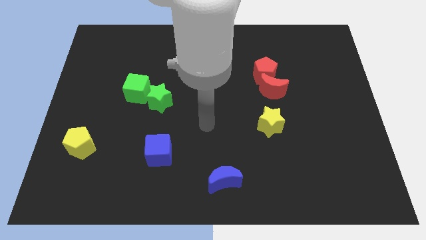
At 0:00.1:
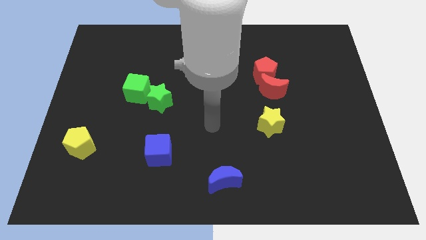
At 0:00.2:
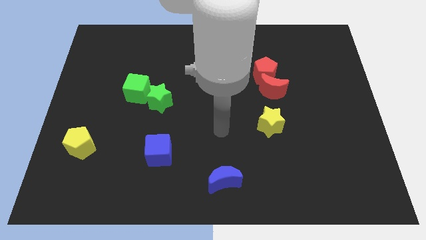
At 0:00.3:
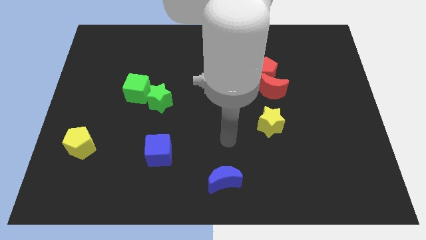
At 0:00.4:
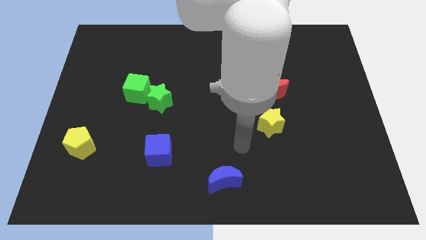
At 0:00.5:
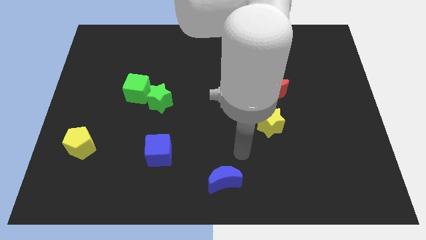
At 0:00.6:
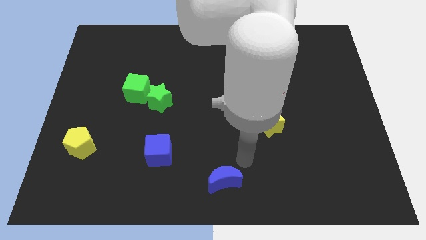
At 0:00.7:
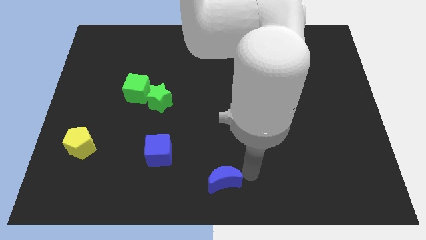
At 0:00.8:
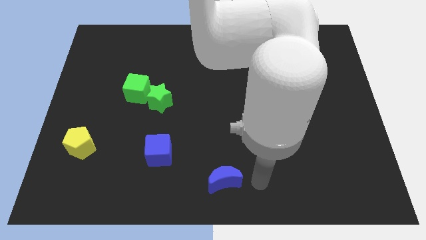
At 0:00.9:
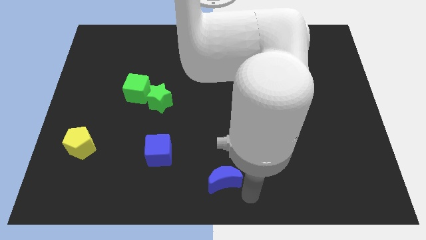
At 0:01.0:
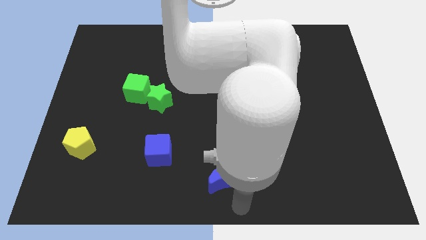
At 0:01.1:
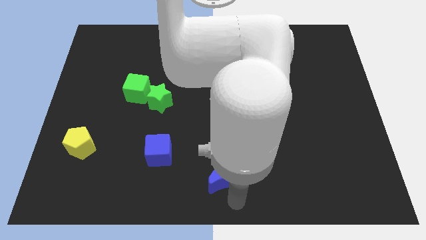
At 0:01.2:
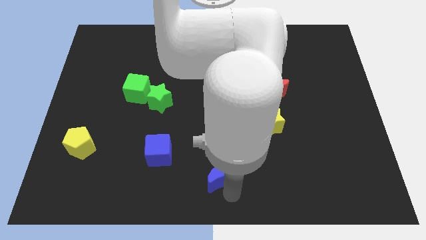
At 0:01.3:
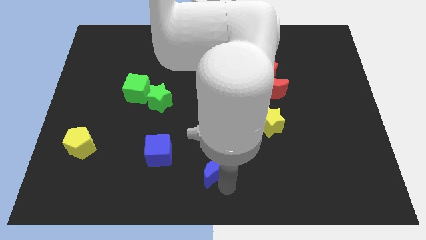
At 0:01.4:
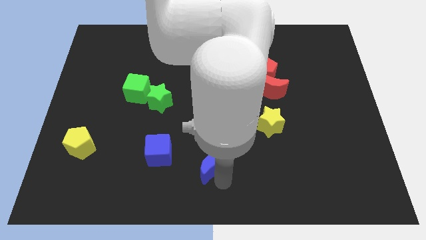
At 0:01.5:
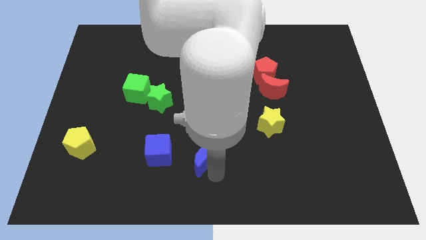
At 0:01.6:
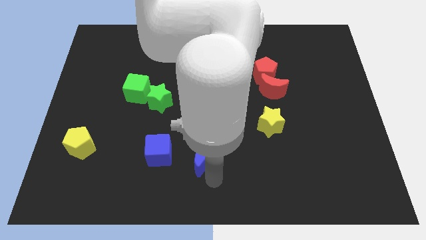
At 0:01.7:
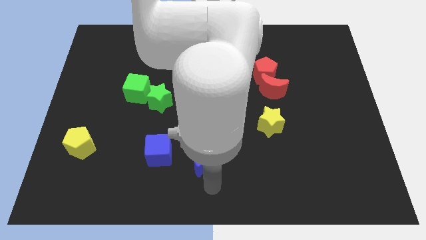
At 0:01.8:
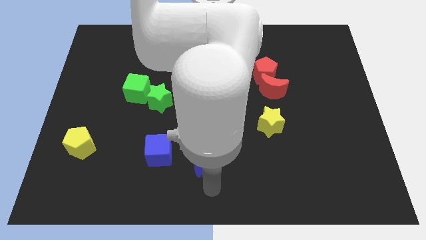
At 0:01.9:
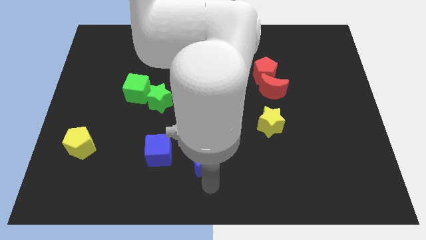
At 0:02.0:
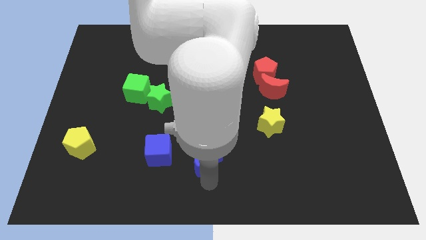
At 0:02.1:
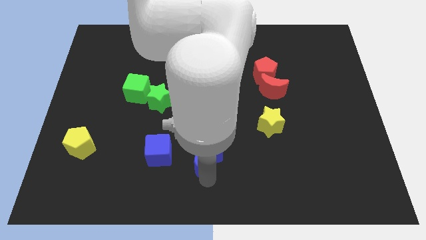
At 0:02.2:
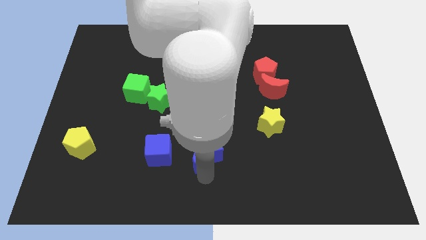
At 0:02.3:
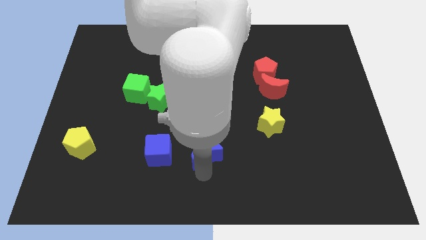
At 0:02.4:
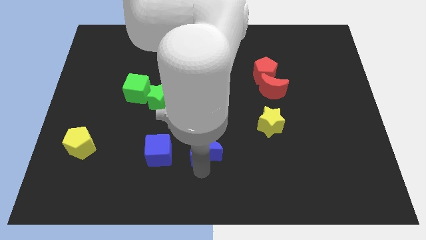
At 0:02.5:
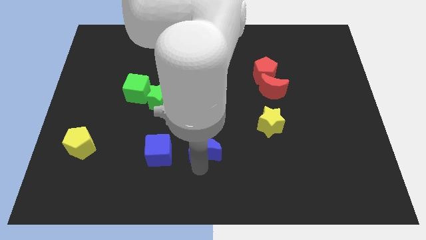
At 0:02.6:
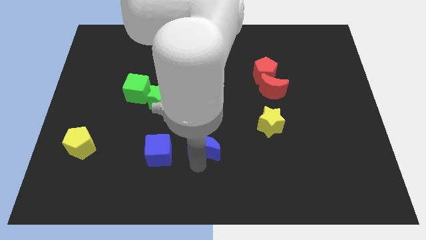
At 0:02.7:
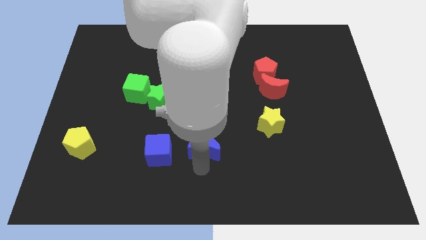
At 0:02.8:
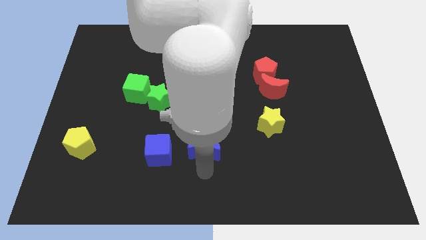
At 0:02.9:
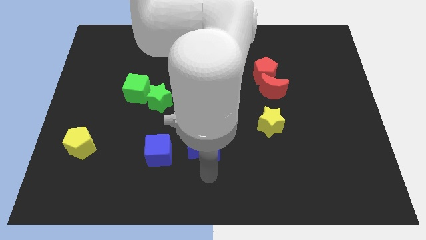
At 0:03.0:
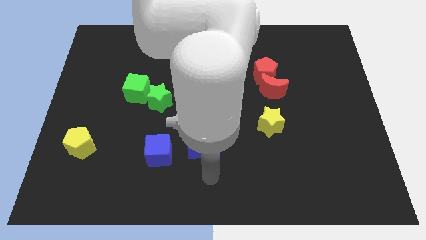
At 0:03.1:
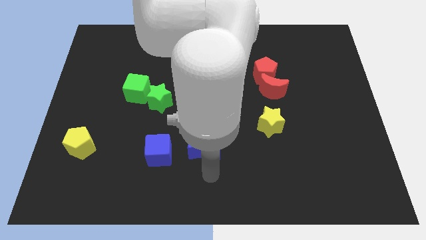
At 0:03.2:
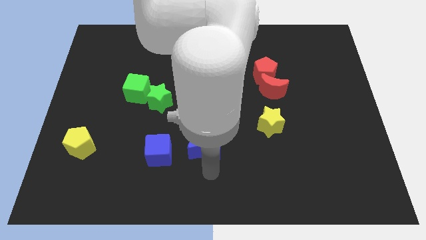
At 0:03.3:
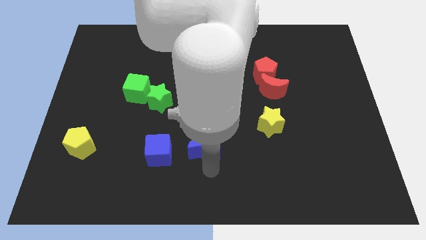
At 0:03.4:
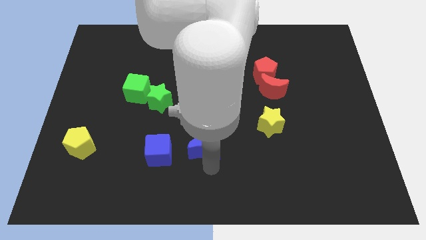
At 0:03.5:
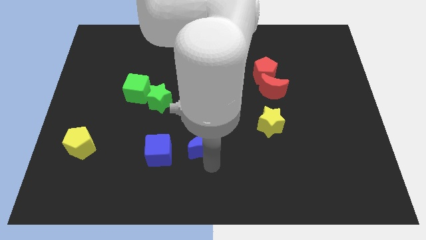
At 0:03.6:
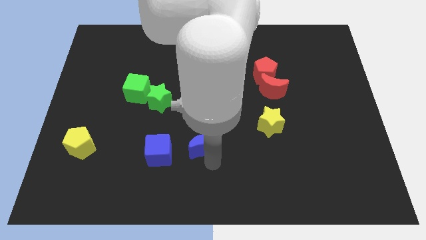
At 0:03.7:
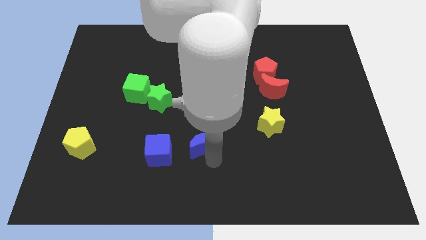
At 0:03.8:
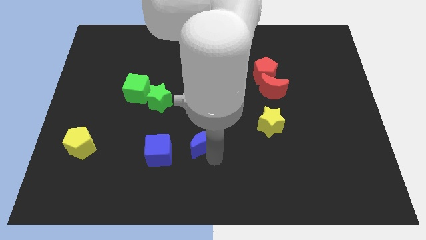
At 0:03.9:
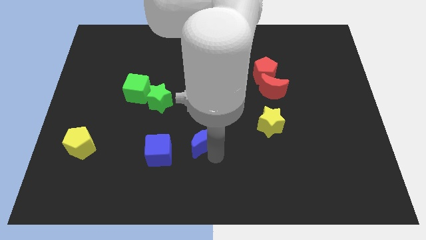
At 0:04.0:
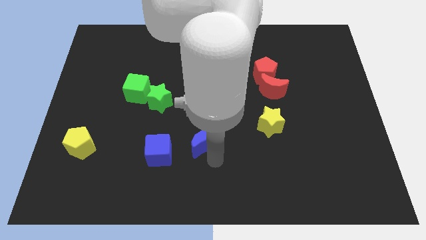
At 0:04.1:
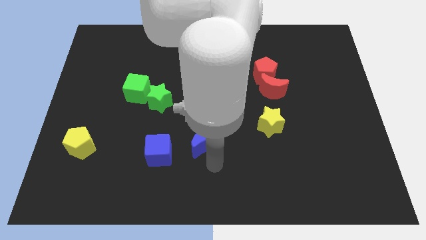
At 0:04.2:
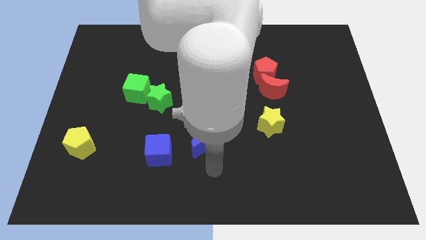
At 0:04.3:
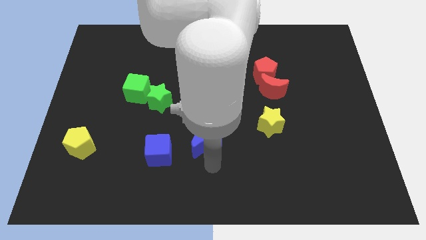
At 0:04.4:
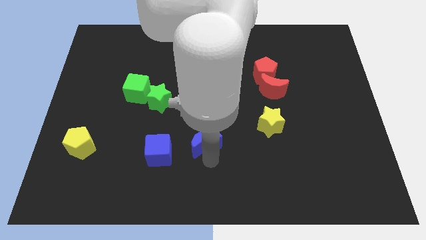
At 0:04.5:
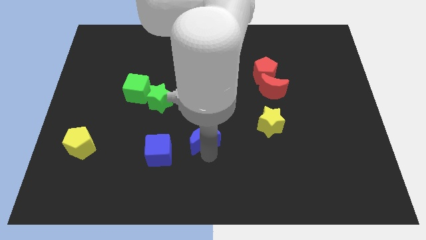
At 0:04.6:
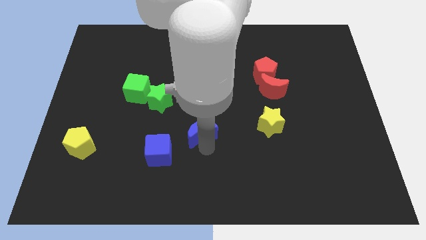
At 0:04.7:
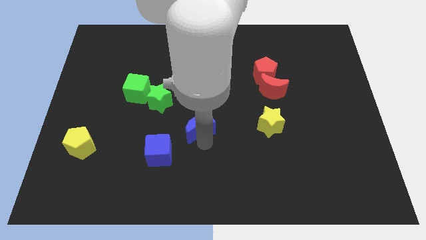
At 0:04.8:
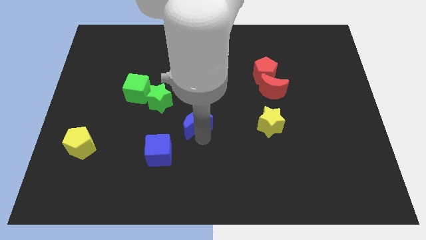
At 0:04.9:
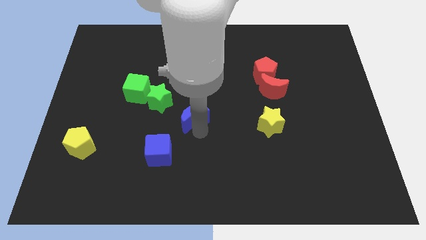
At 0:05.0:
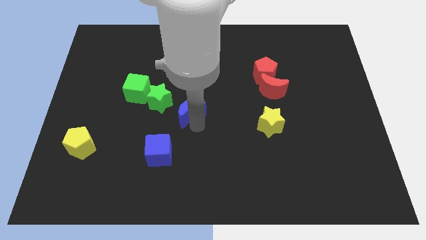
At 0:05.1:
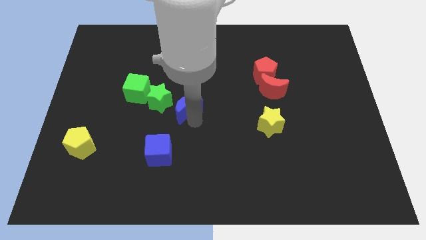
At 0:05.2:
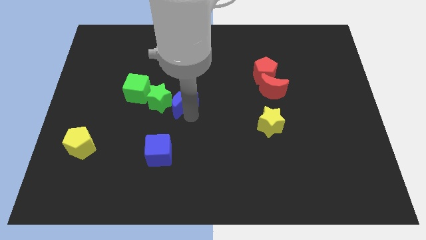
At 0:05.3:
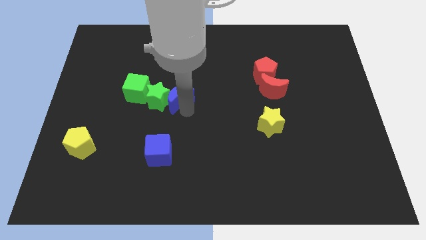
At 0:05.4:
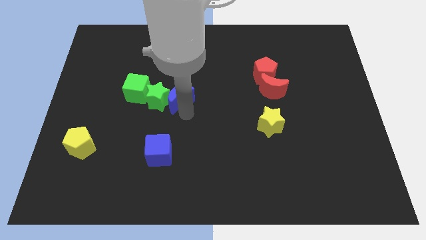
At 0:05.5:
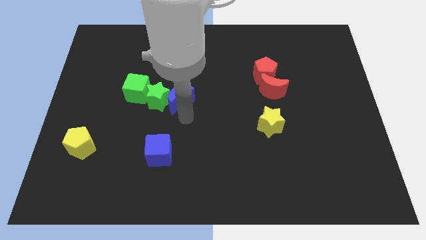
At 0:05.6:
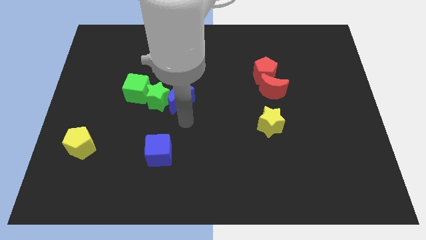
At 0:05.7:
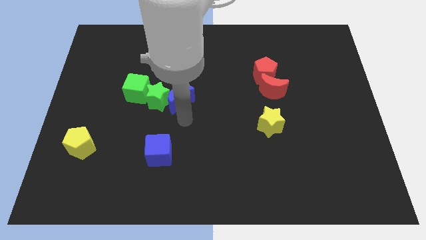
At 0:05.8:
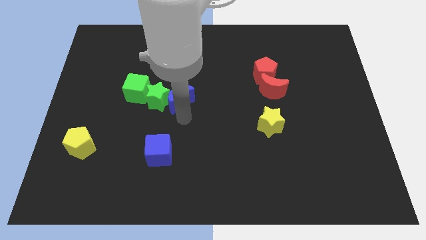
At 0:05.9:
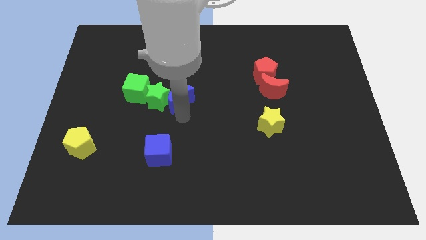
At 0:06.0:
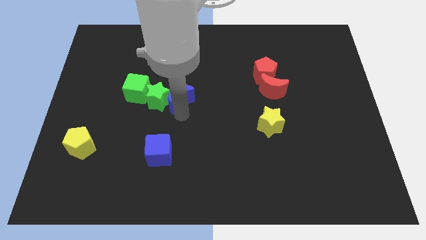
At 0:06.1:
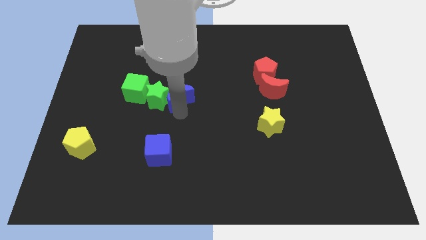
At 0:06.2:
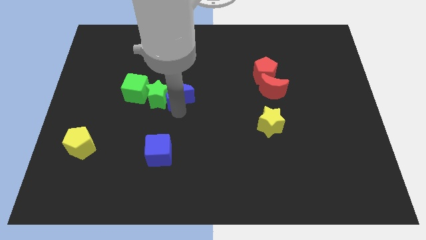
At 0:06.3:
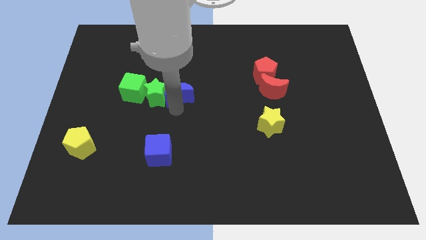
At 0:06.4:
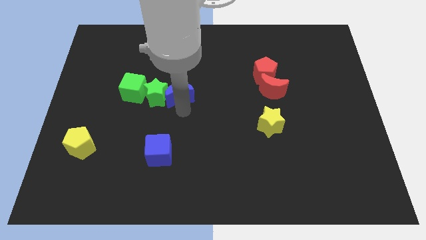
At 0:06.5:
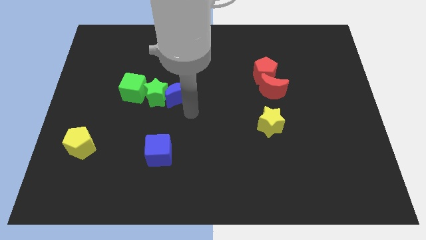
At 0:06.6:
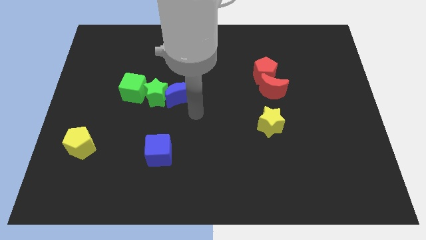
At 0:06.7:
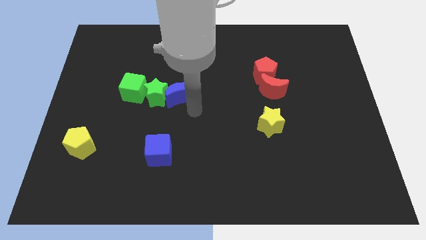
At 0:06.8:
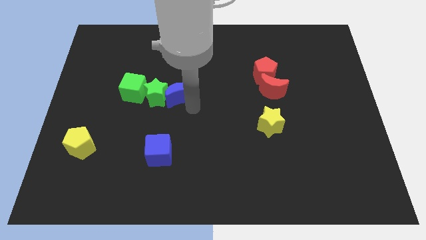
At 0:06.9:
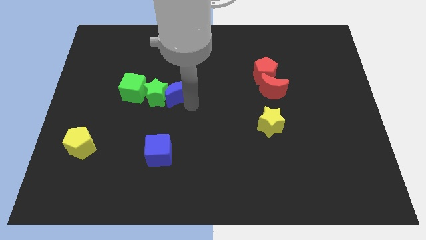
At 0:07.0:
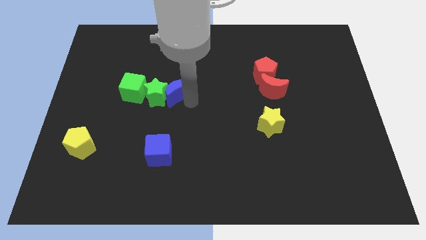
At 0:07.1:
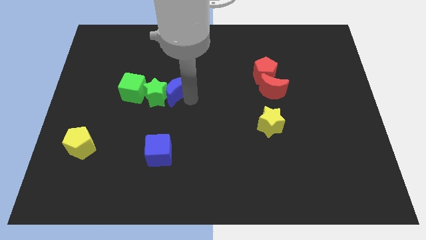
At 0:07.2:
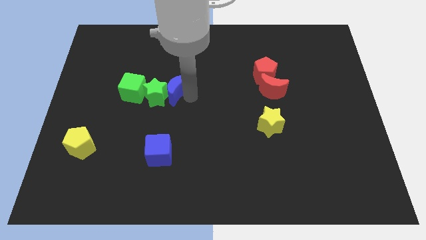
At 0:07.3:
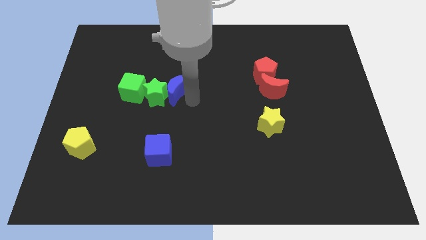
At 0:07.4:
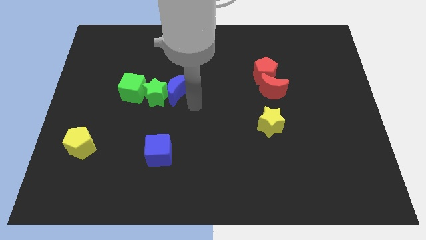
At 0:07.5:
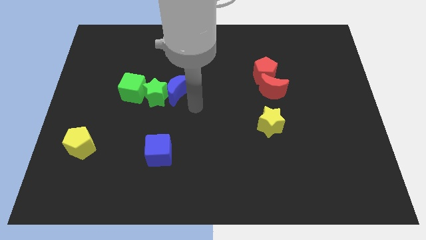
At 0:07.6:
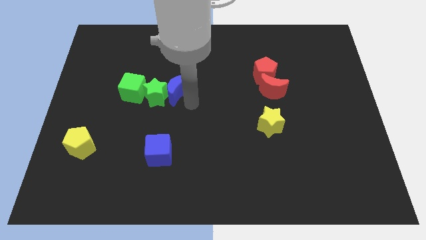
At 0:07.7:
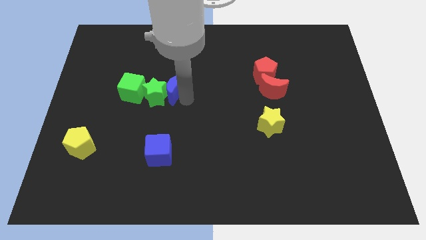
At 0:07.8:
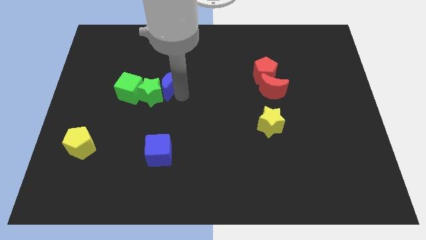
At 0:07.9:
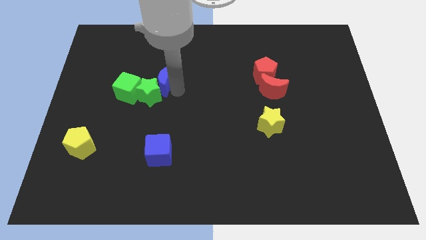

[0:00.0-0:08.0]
put the blue moon to the top right of the green cube
